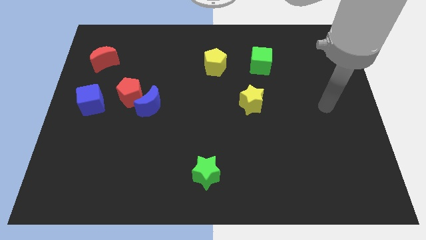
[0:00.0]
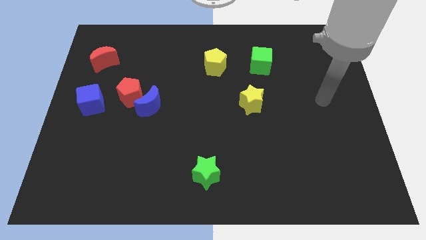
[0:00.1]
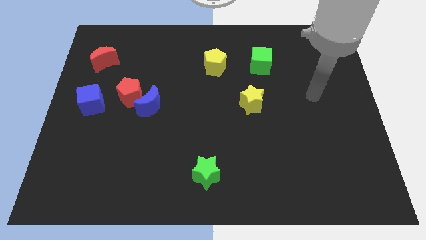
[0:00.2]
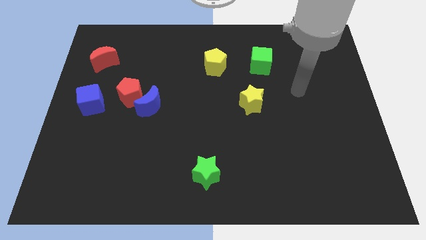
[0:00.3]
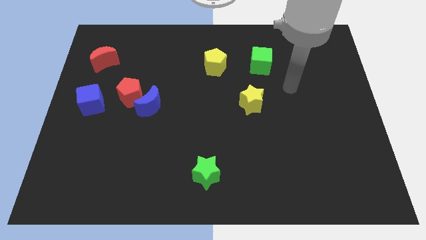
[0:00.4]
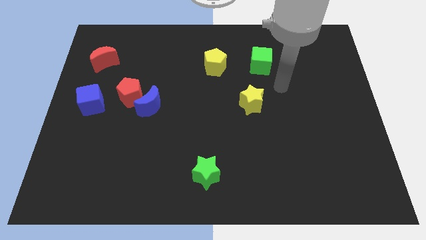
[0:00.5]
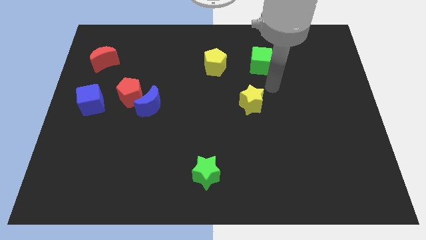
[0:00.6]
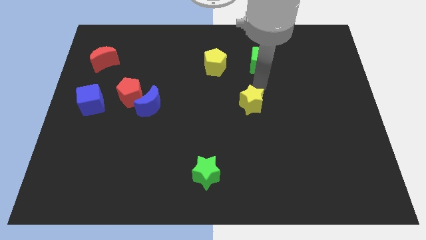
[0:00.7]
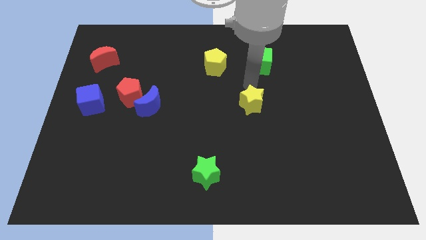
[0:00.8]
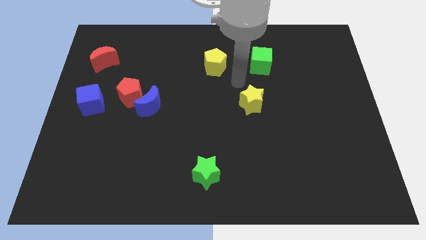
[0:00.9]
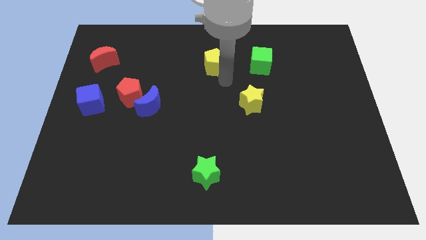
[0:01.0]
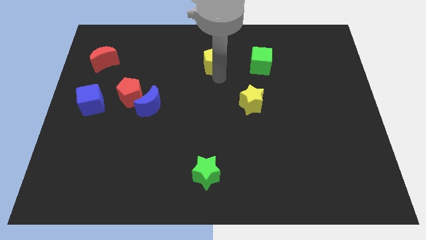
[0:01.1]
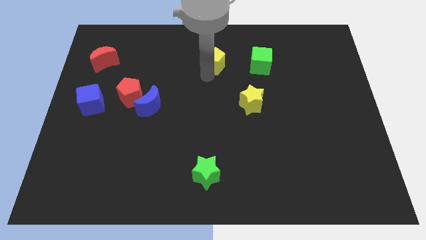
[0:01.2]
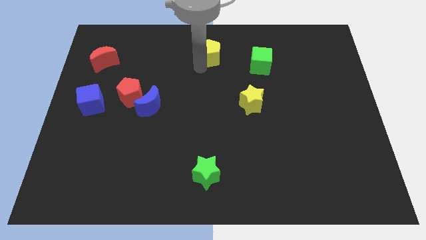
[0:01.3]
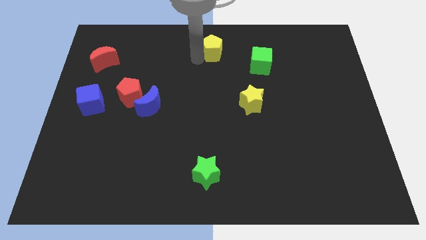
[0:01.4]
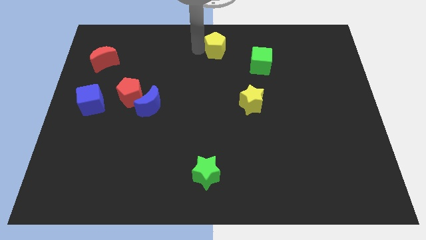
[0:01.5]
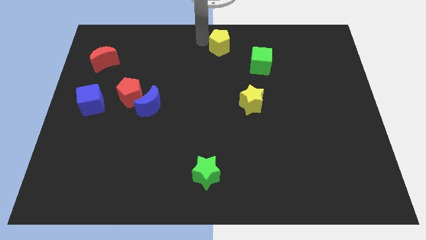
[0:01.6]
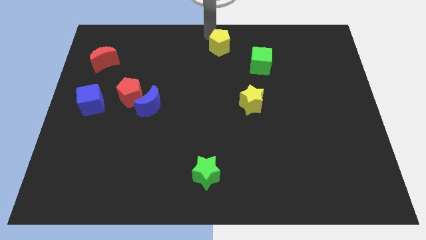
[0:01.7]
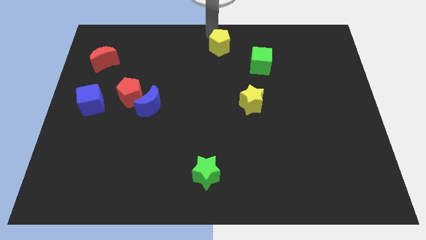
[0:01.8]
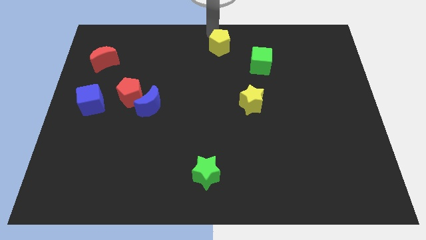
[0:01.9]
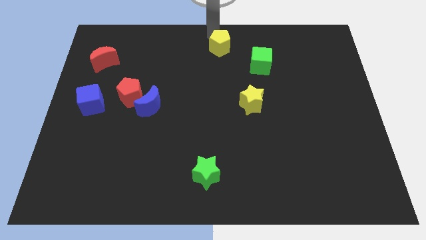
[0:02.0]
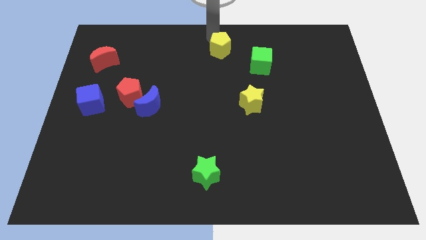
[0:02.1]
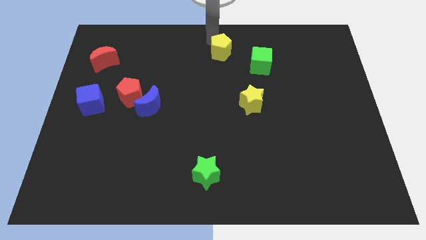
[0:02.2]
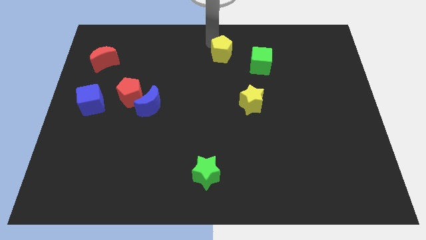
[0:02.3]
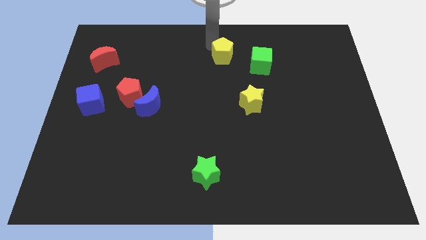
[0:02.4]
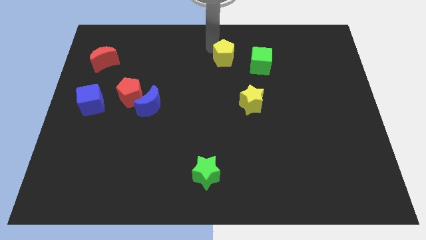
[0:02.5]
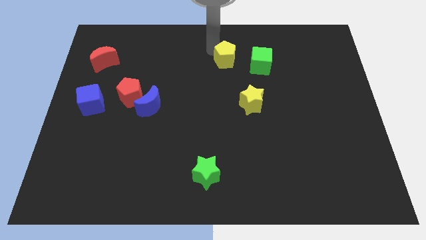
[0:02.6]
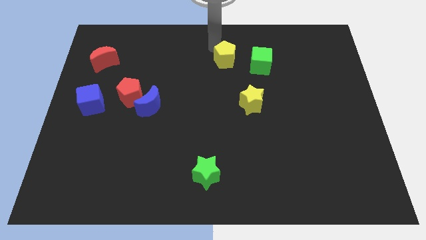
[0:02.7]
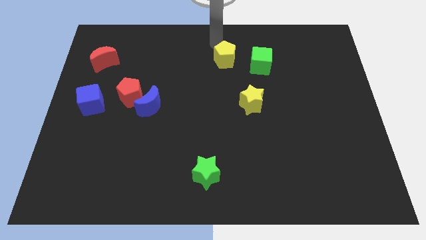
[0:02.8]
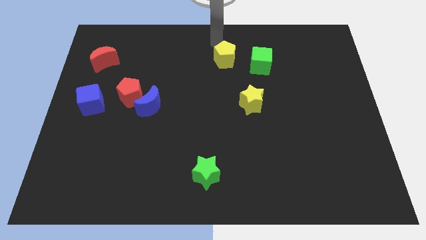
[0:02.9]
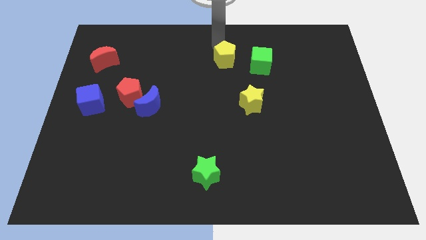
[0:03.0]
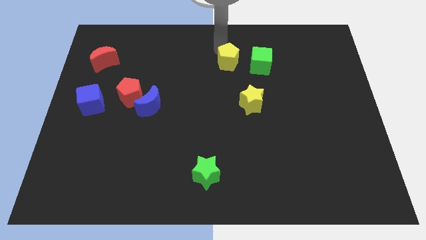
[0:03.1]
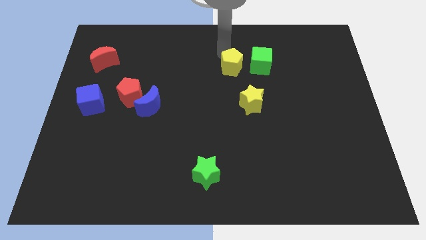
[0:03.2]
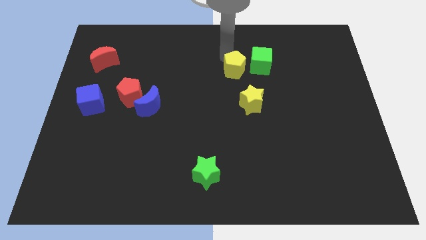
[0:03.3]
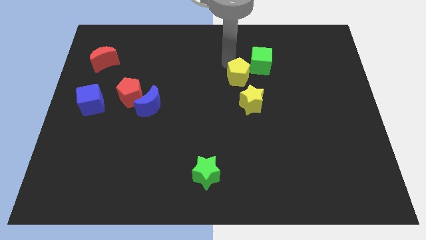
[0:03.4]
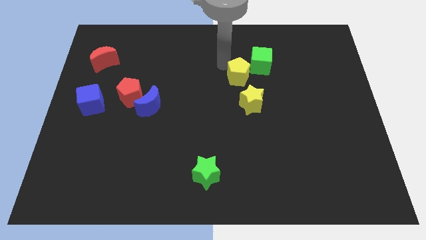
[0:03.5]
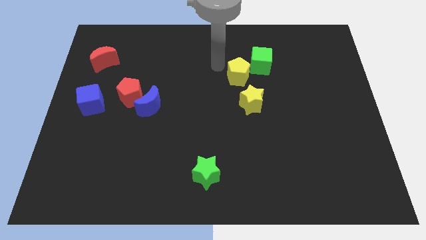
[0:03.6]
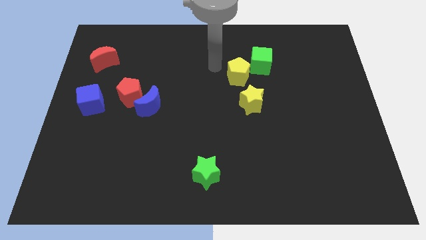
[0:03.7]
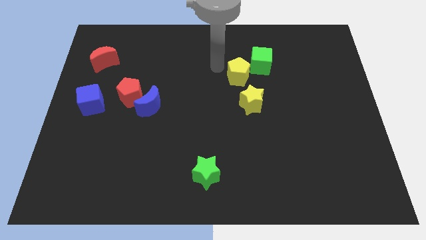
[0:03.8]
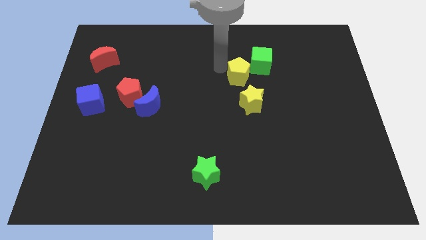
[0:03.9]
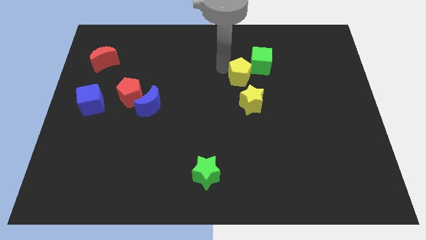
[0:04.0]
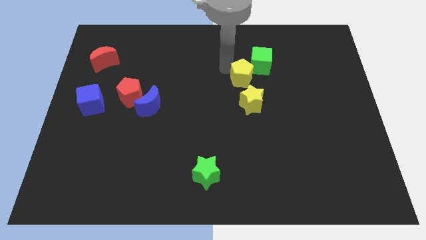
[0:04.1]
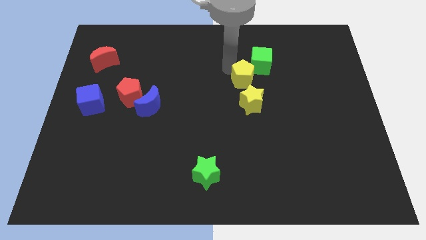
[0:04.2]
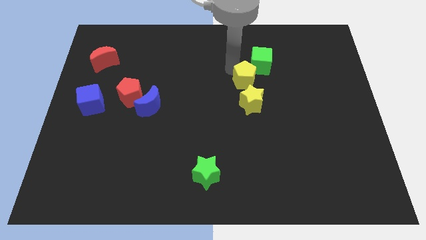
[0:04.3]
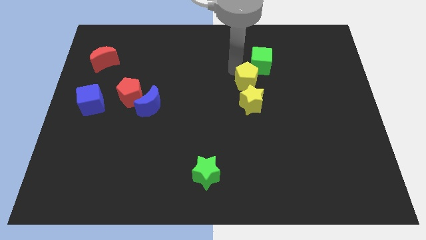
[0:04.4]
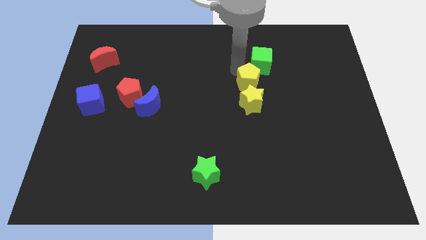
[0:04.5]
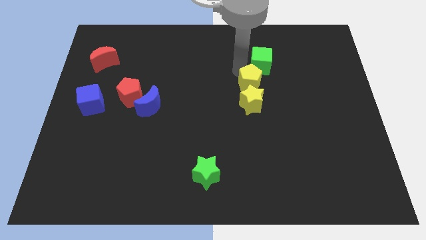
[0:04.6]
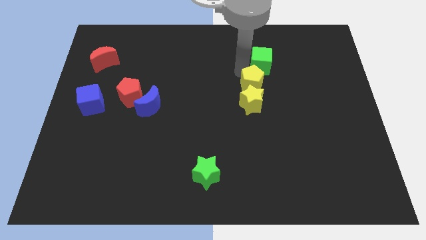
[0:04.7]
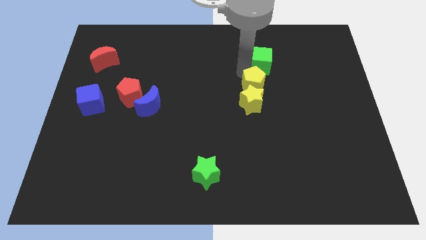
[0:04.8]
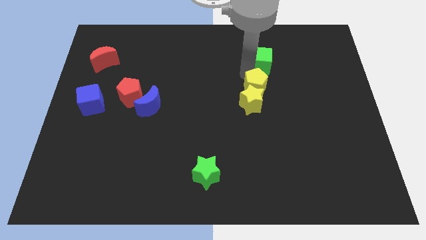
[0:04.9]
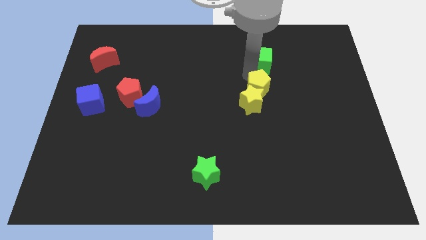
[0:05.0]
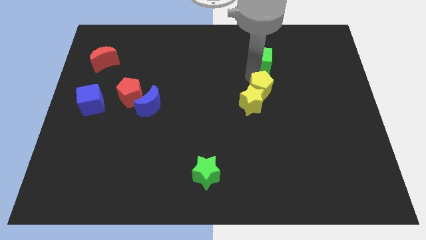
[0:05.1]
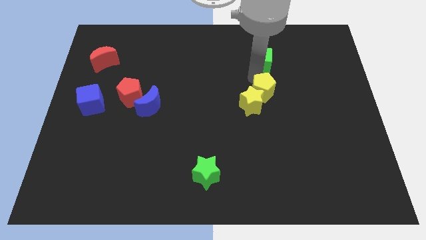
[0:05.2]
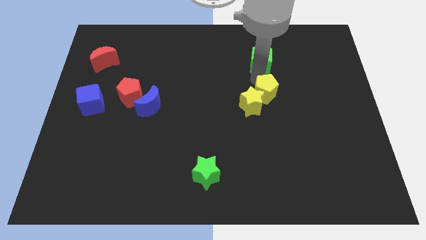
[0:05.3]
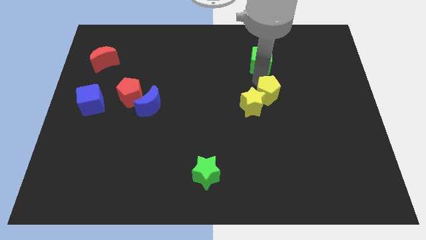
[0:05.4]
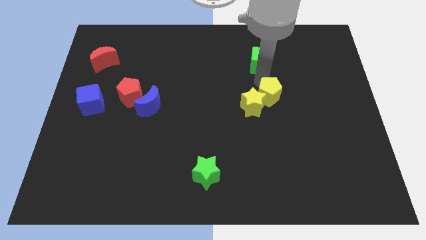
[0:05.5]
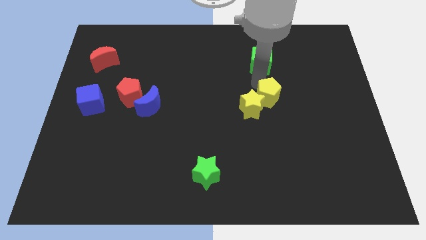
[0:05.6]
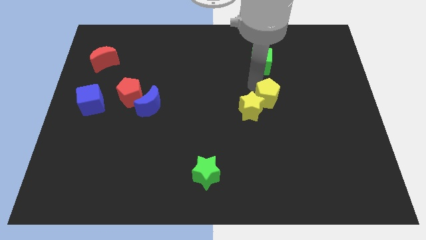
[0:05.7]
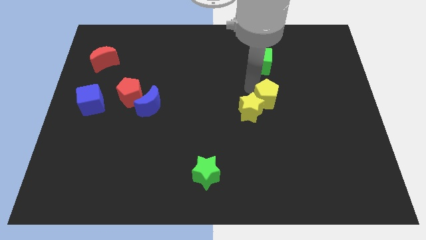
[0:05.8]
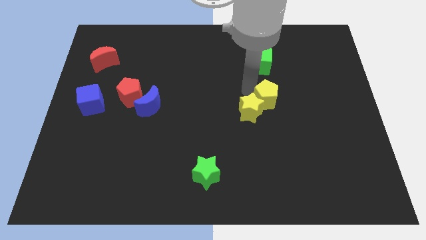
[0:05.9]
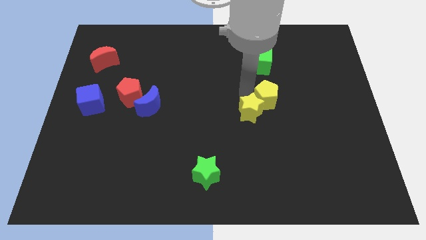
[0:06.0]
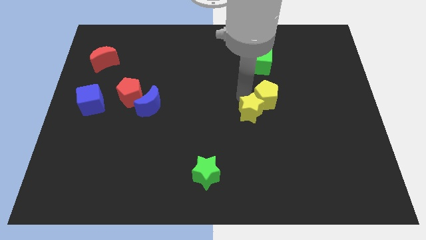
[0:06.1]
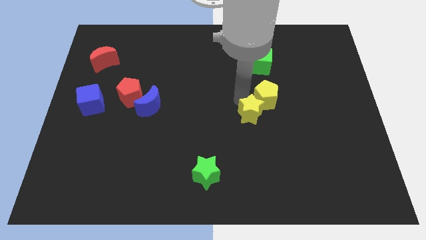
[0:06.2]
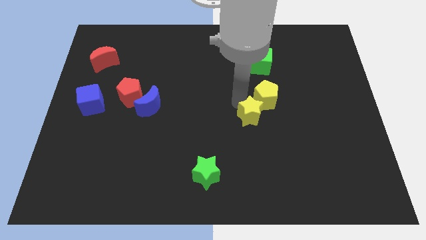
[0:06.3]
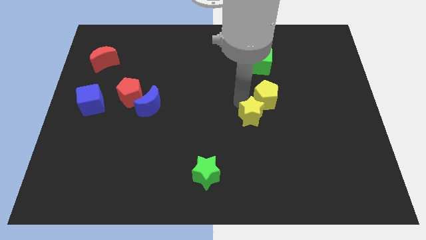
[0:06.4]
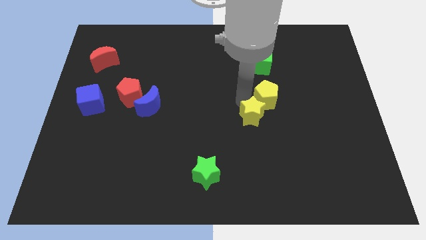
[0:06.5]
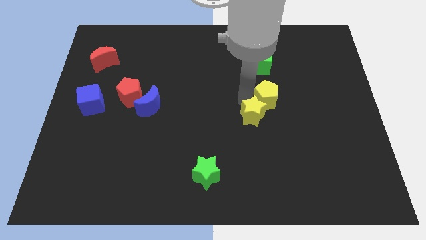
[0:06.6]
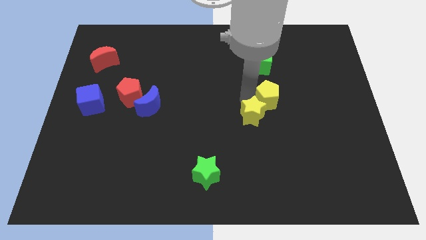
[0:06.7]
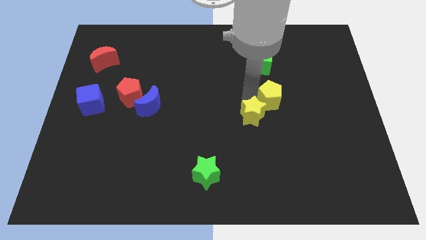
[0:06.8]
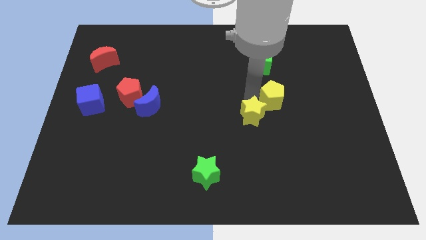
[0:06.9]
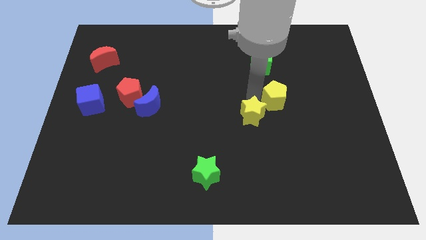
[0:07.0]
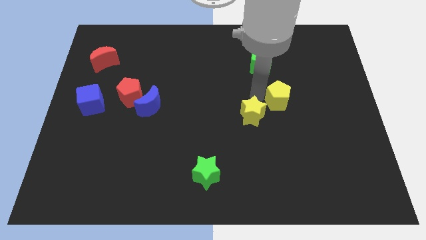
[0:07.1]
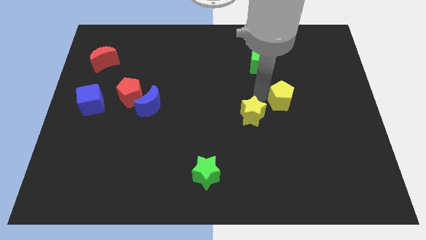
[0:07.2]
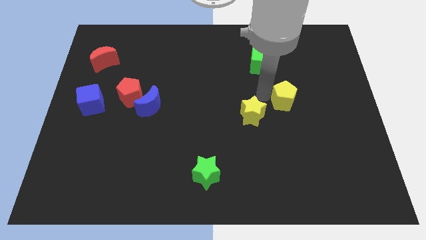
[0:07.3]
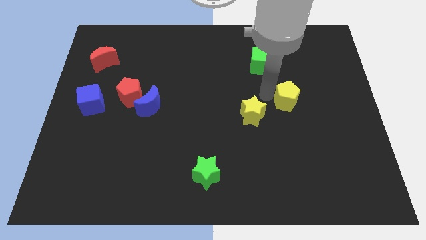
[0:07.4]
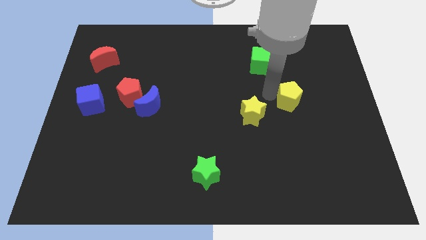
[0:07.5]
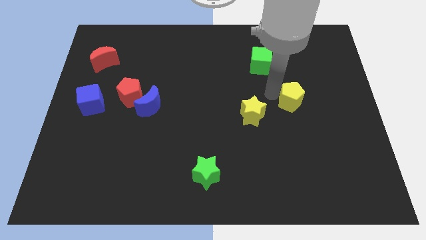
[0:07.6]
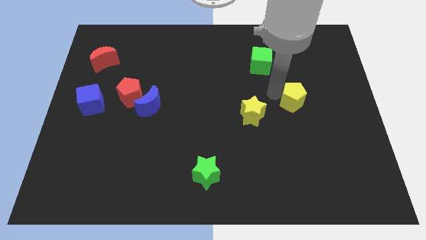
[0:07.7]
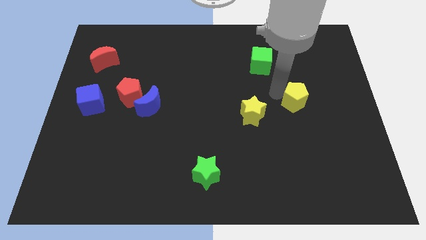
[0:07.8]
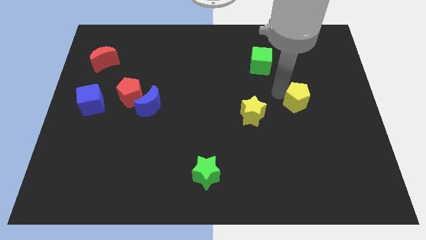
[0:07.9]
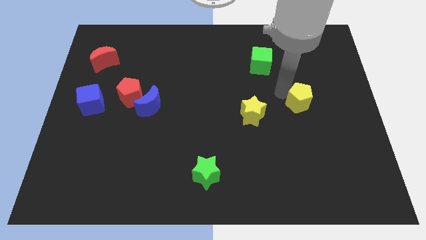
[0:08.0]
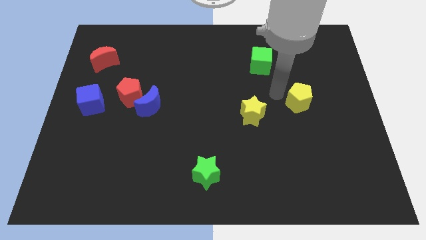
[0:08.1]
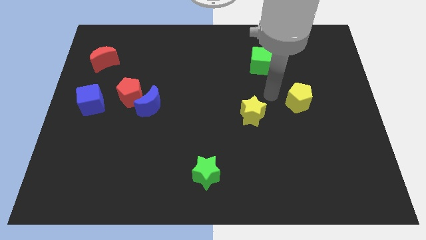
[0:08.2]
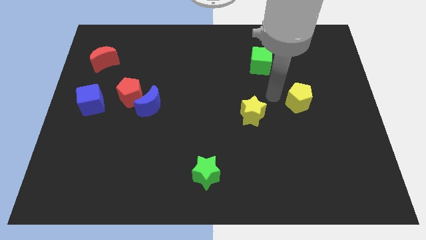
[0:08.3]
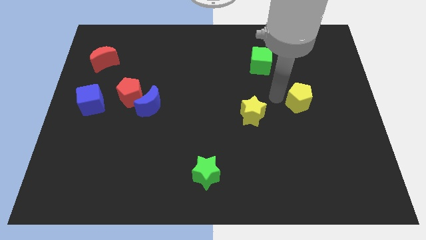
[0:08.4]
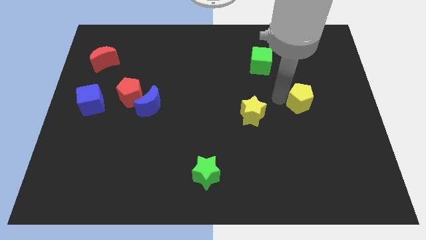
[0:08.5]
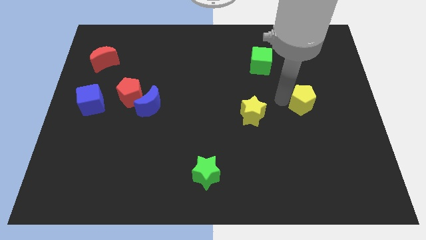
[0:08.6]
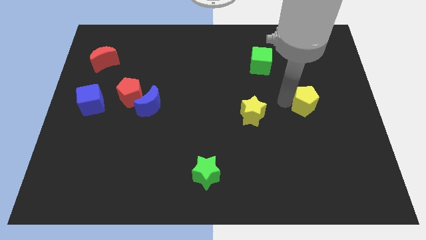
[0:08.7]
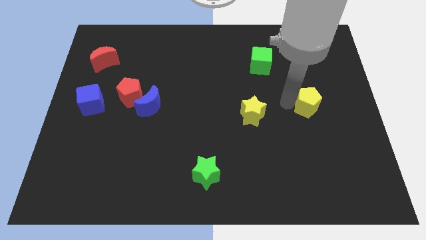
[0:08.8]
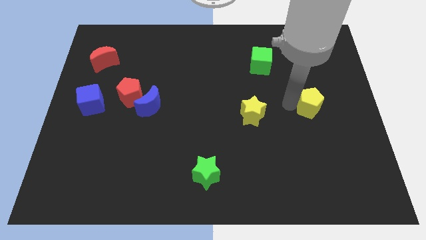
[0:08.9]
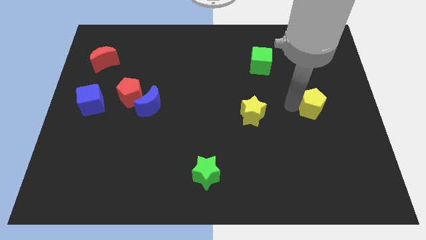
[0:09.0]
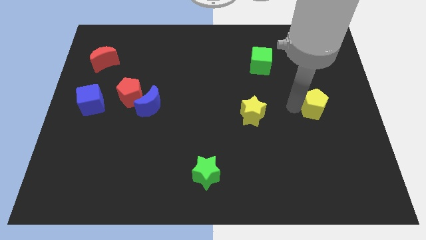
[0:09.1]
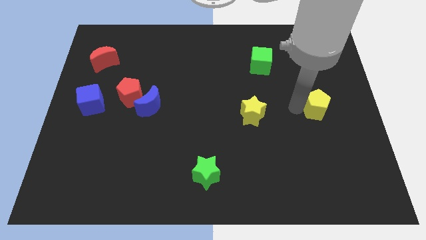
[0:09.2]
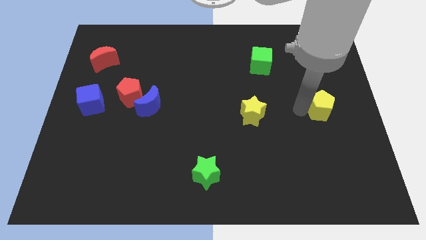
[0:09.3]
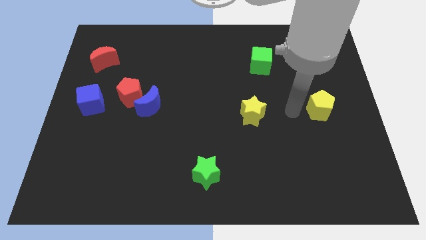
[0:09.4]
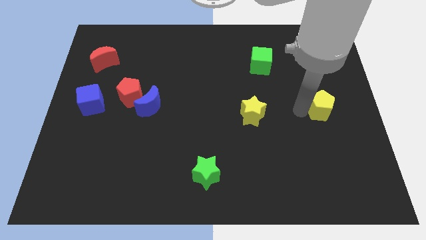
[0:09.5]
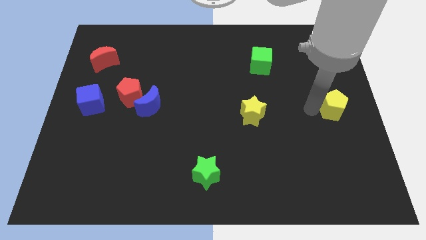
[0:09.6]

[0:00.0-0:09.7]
slide the yellow pentagon to the center right
